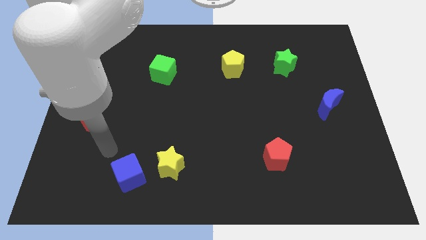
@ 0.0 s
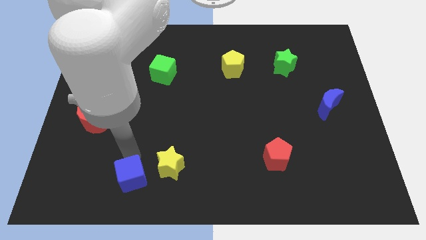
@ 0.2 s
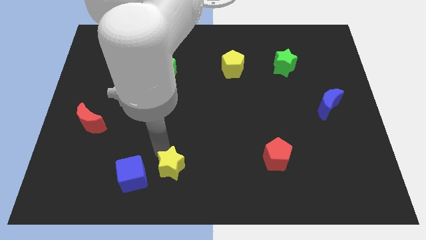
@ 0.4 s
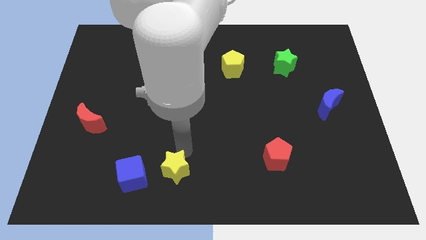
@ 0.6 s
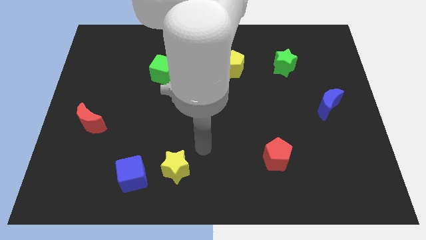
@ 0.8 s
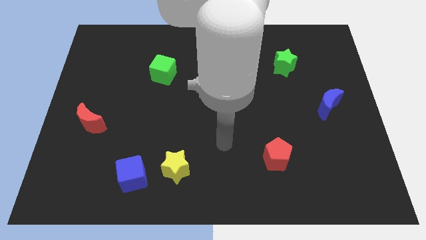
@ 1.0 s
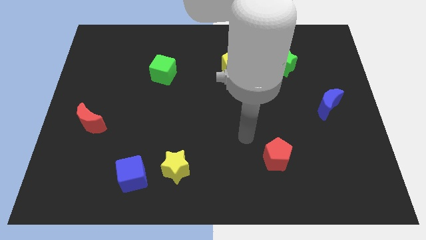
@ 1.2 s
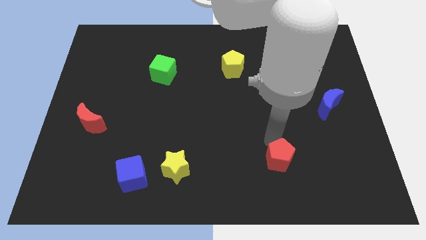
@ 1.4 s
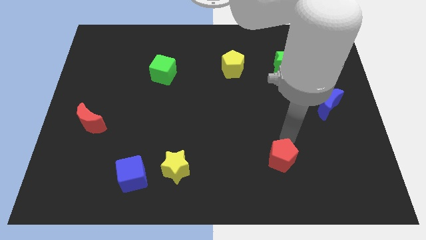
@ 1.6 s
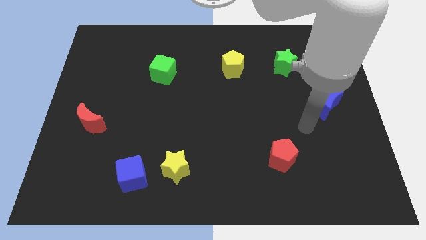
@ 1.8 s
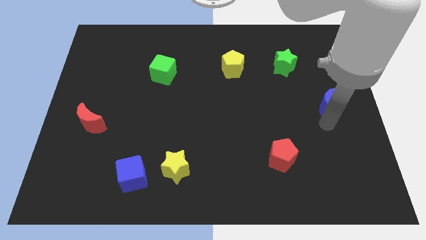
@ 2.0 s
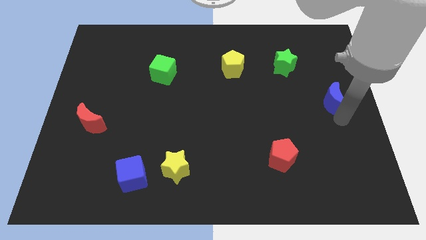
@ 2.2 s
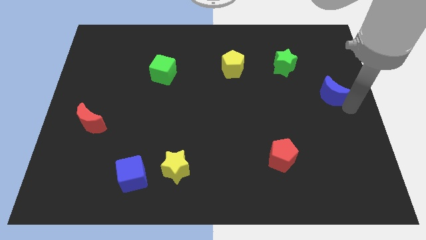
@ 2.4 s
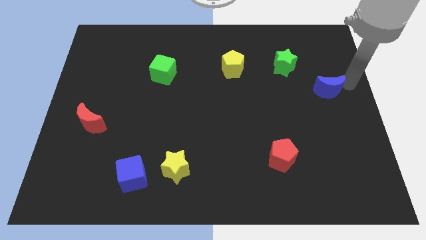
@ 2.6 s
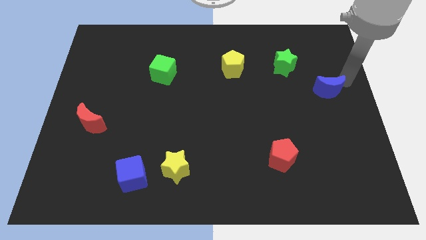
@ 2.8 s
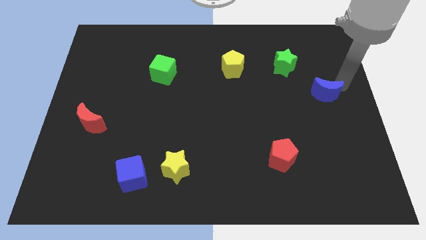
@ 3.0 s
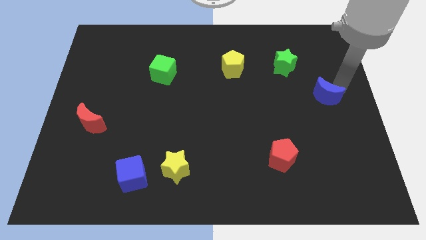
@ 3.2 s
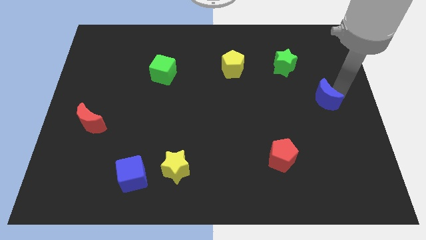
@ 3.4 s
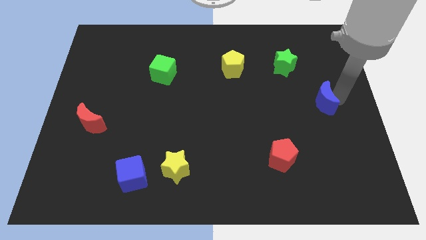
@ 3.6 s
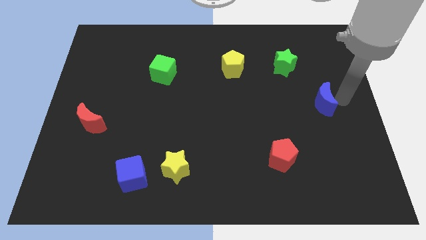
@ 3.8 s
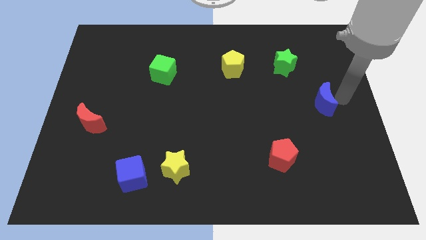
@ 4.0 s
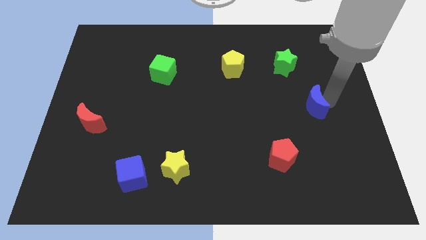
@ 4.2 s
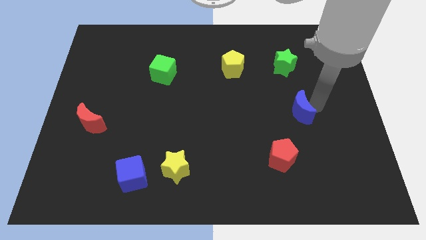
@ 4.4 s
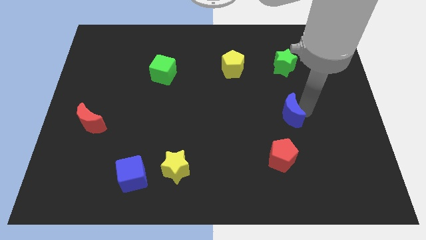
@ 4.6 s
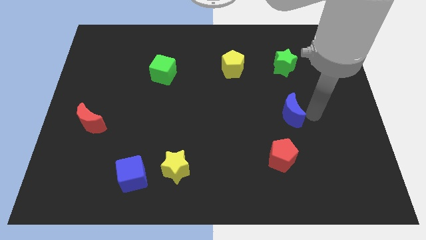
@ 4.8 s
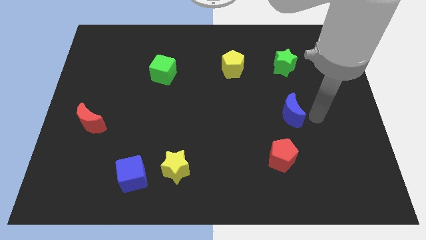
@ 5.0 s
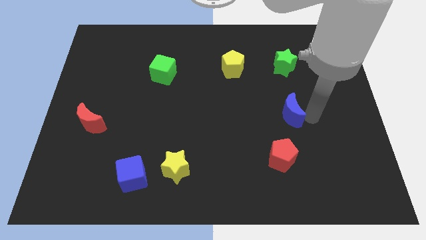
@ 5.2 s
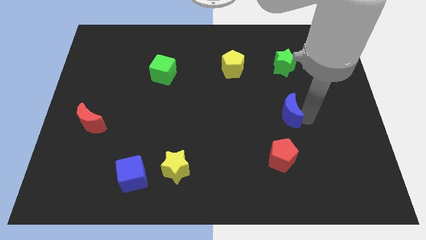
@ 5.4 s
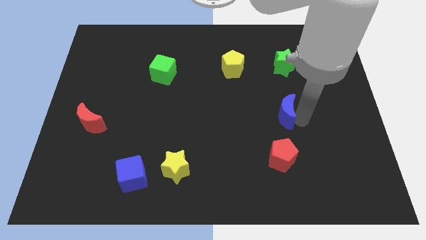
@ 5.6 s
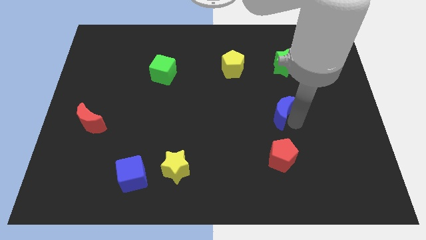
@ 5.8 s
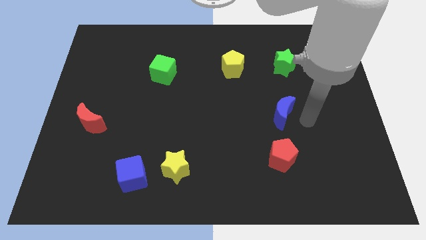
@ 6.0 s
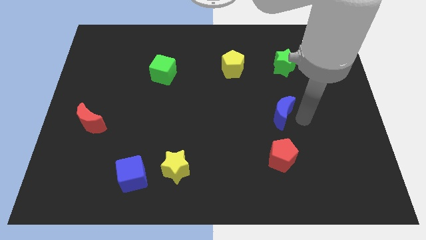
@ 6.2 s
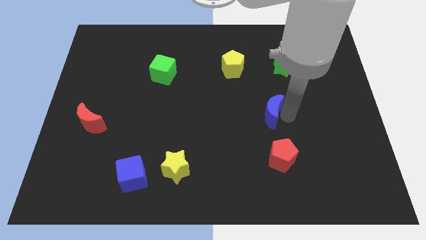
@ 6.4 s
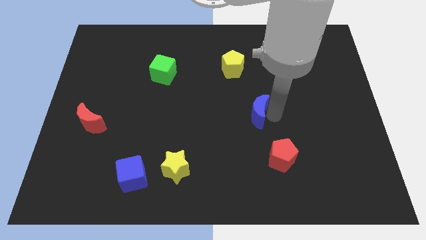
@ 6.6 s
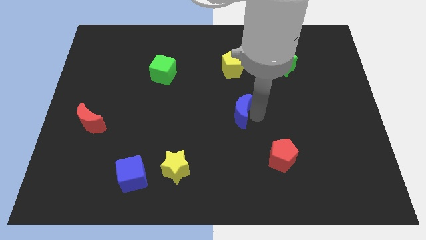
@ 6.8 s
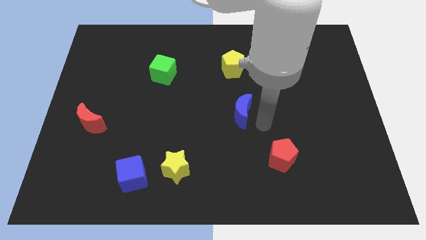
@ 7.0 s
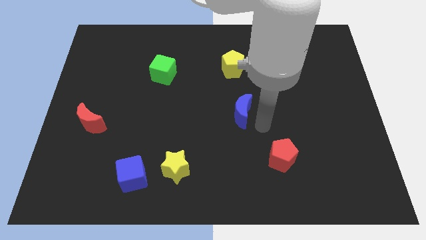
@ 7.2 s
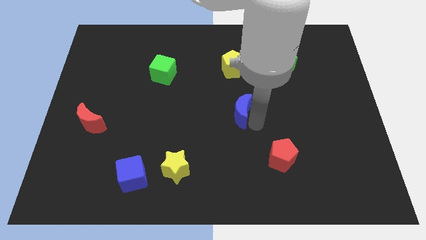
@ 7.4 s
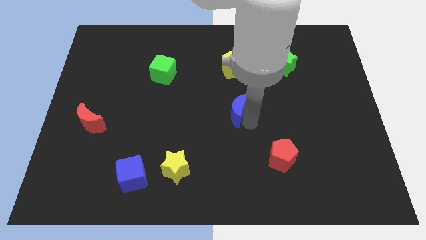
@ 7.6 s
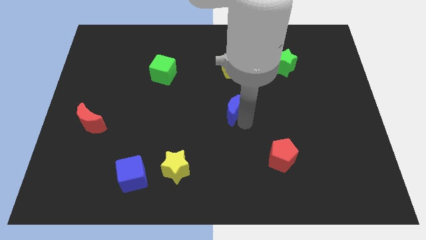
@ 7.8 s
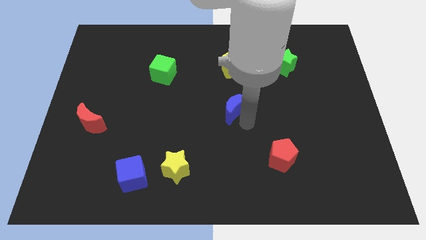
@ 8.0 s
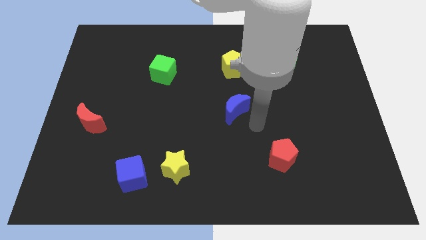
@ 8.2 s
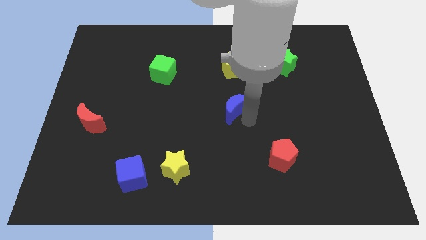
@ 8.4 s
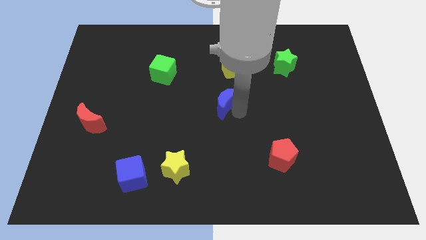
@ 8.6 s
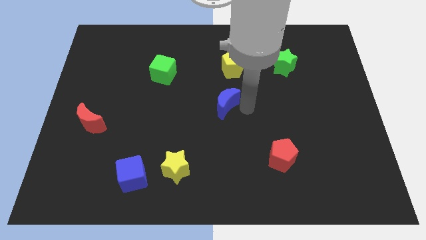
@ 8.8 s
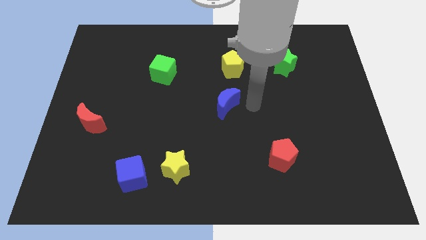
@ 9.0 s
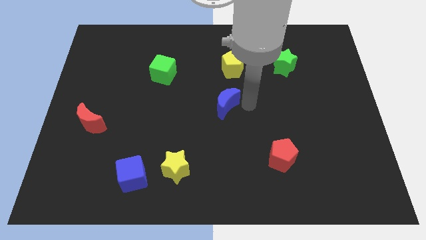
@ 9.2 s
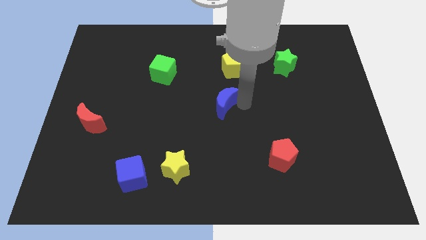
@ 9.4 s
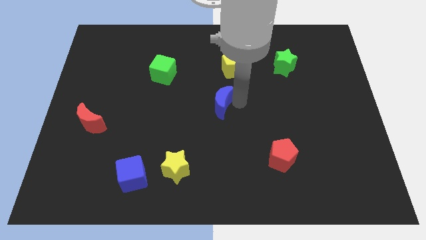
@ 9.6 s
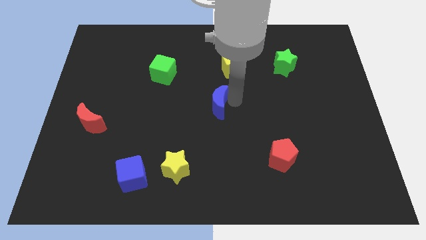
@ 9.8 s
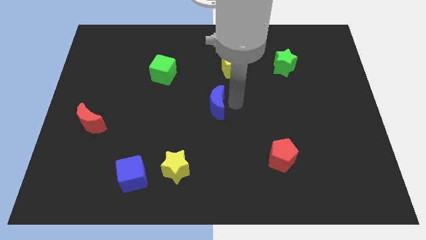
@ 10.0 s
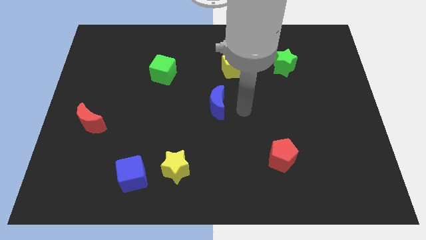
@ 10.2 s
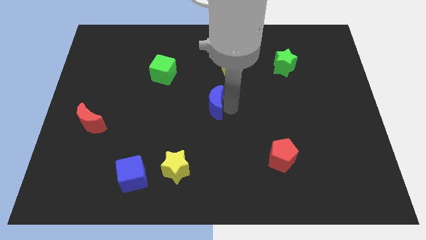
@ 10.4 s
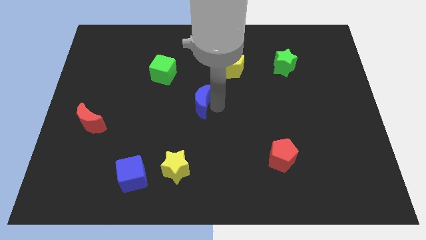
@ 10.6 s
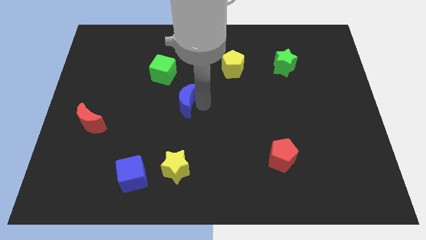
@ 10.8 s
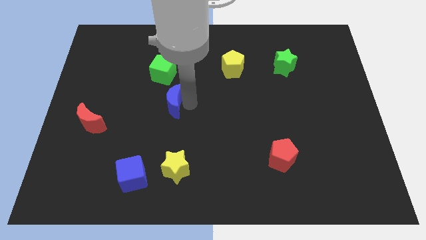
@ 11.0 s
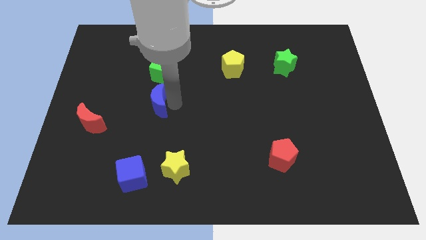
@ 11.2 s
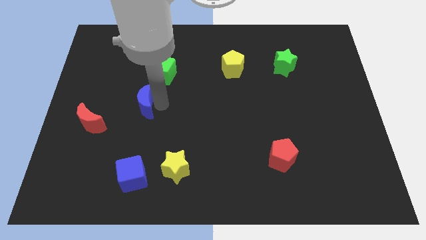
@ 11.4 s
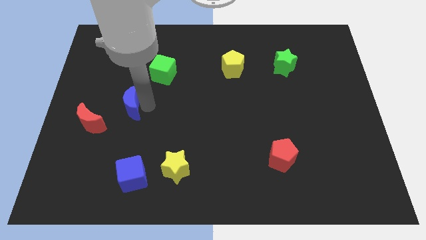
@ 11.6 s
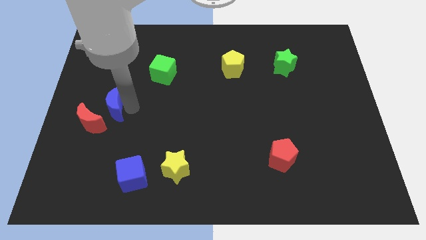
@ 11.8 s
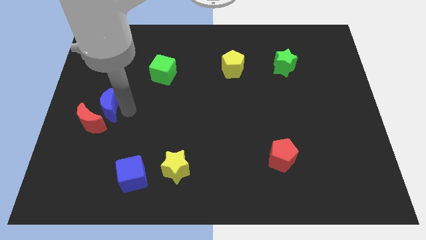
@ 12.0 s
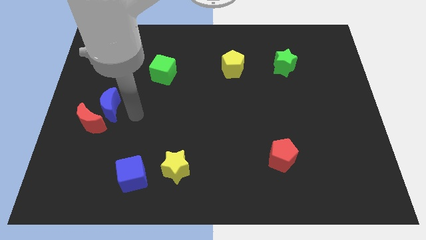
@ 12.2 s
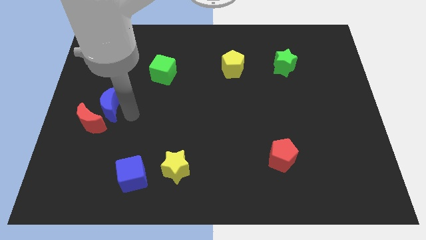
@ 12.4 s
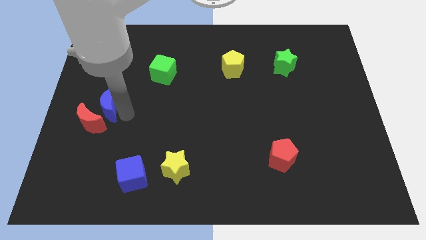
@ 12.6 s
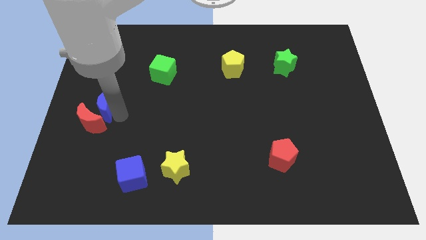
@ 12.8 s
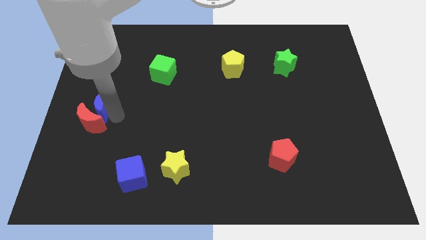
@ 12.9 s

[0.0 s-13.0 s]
slide the blue moon to the center left

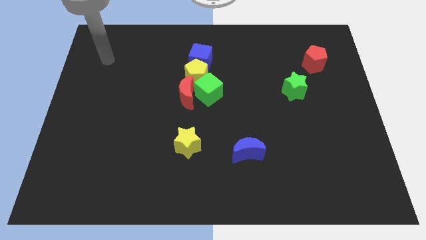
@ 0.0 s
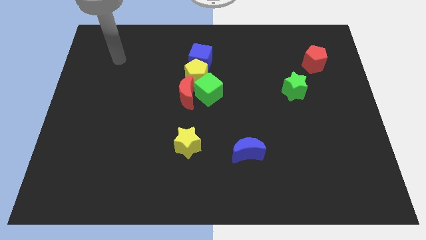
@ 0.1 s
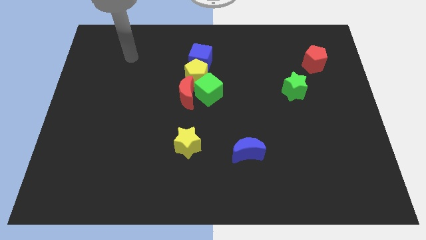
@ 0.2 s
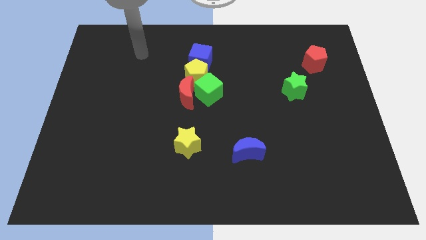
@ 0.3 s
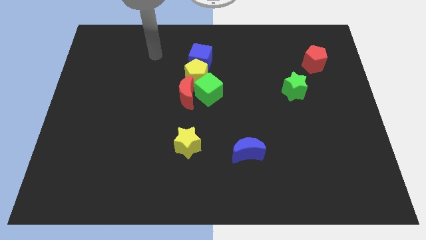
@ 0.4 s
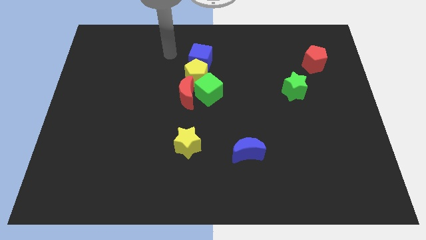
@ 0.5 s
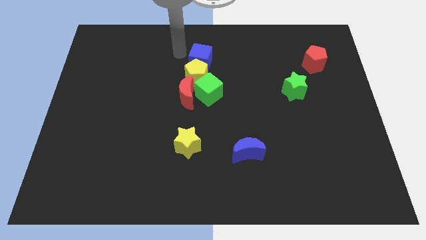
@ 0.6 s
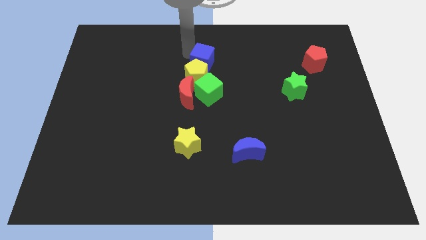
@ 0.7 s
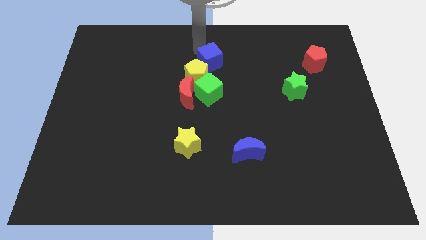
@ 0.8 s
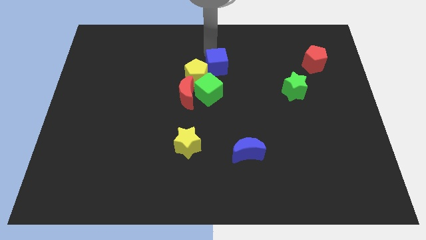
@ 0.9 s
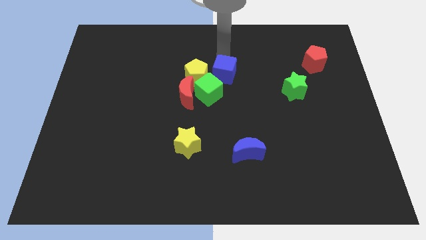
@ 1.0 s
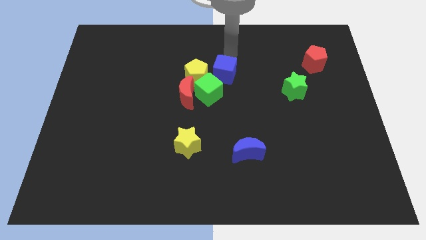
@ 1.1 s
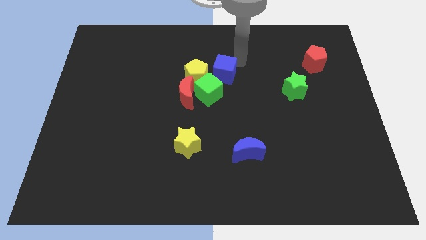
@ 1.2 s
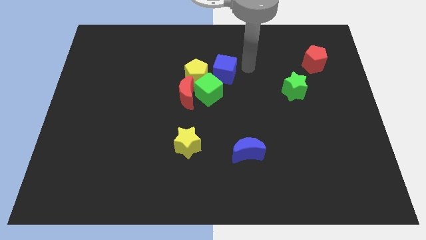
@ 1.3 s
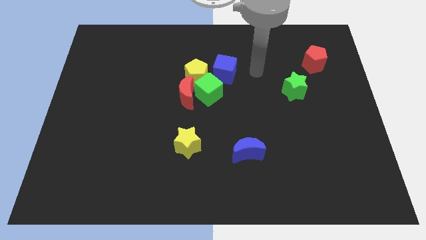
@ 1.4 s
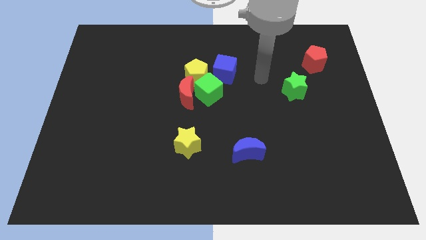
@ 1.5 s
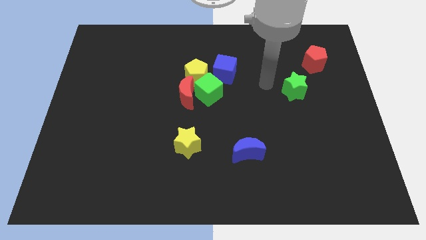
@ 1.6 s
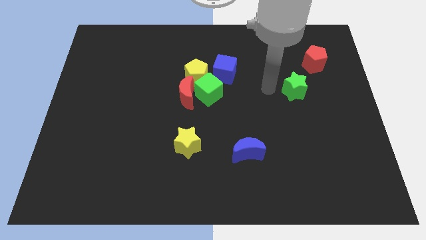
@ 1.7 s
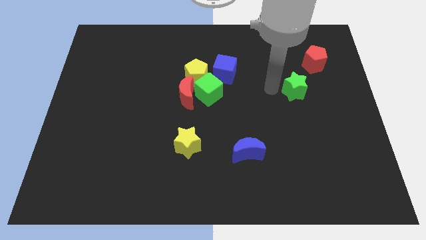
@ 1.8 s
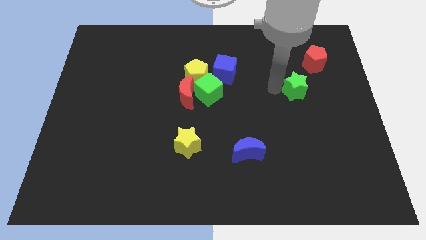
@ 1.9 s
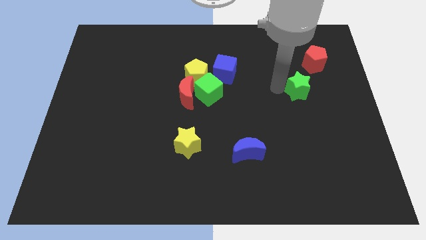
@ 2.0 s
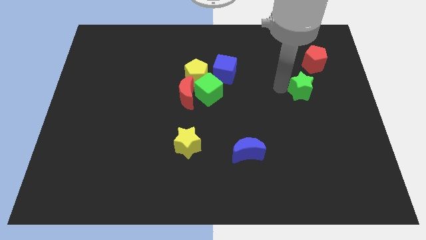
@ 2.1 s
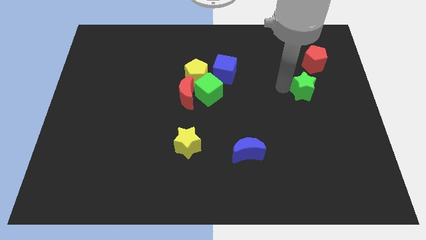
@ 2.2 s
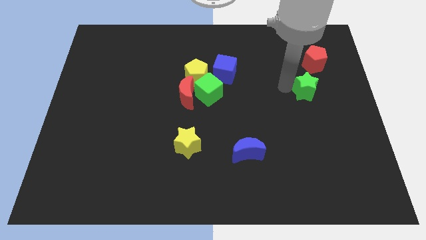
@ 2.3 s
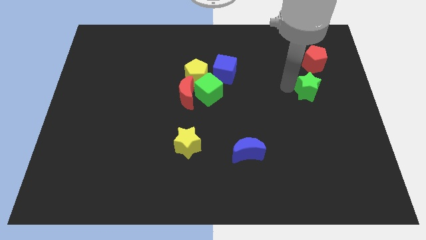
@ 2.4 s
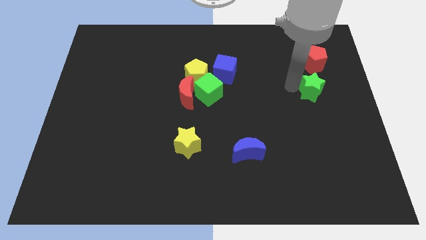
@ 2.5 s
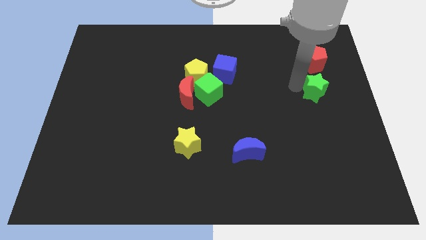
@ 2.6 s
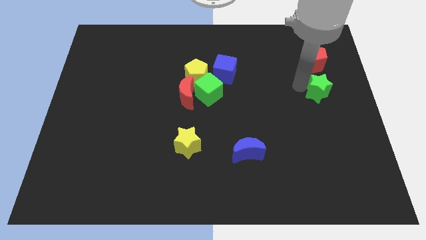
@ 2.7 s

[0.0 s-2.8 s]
slide the green star to the center right
